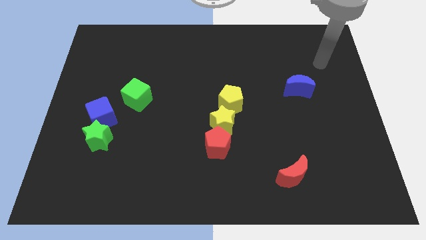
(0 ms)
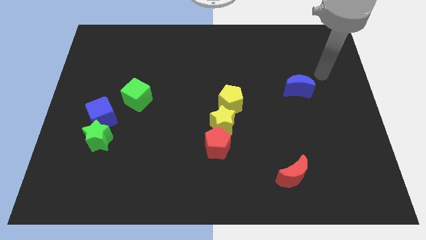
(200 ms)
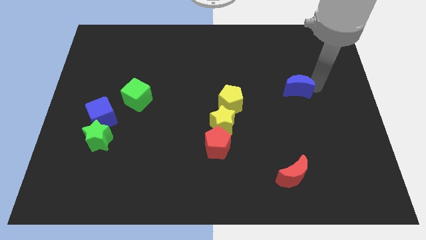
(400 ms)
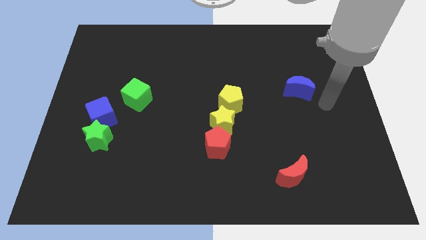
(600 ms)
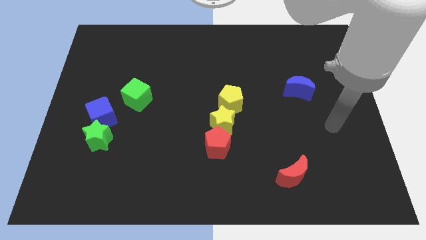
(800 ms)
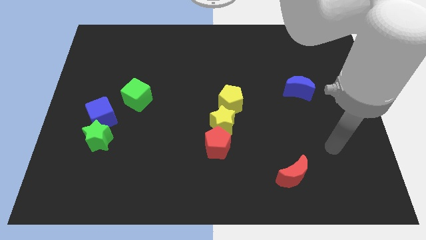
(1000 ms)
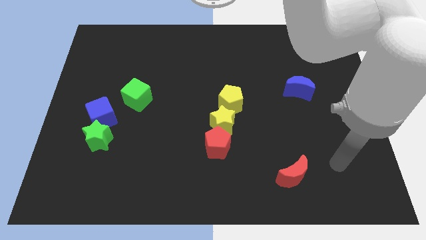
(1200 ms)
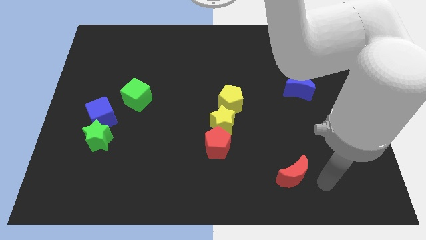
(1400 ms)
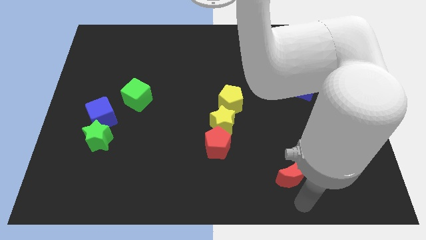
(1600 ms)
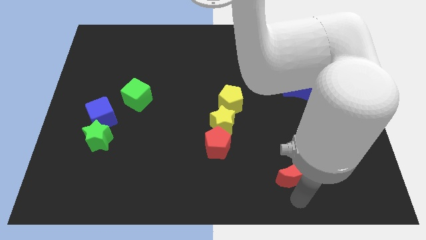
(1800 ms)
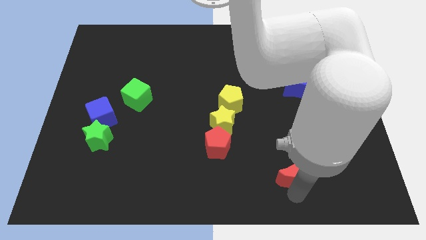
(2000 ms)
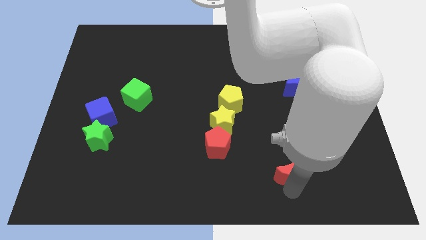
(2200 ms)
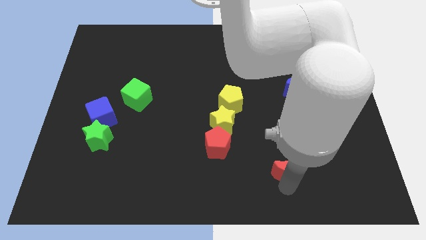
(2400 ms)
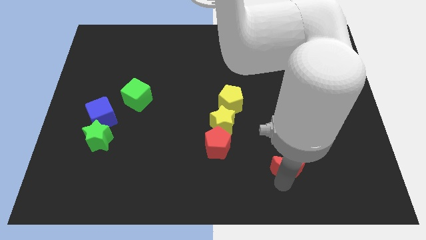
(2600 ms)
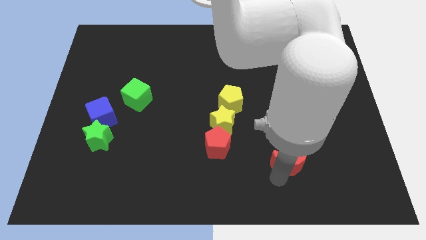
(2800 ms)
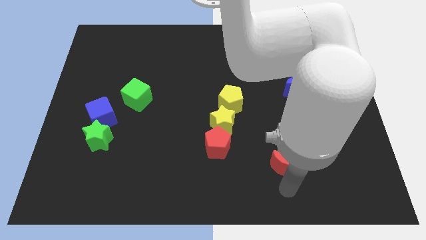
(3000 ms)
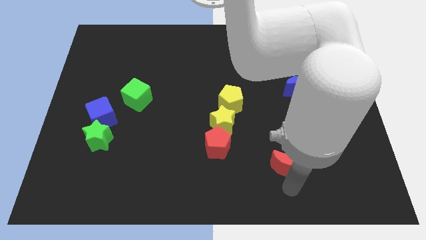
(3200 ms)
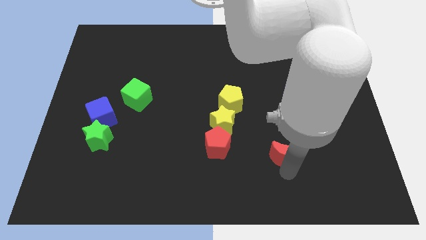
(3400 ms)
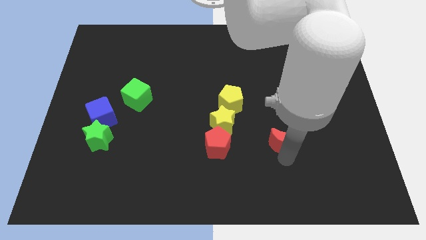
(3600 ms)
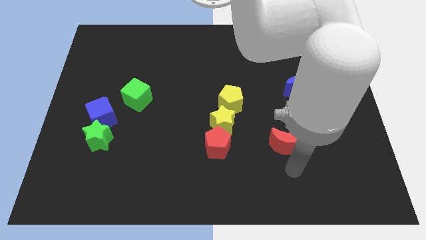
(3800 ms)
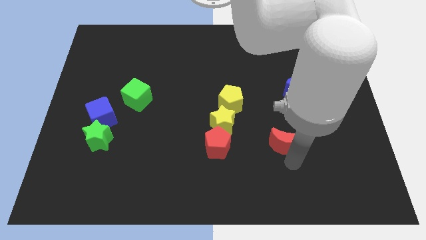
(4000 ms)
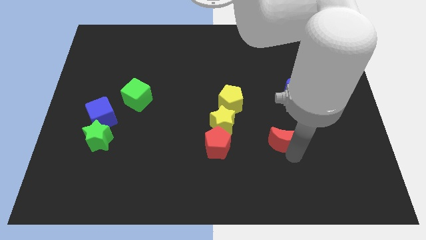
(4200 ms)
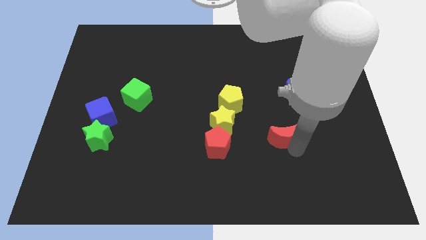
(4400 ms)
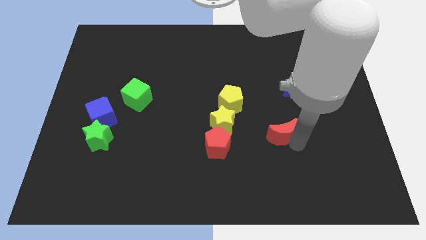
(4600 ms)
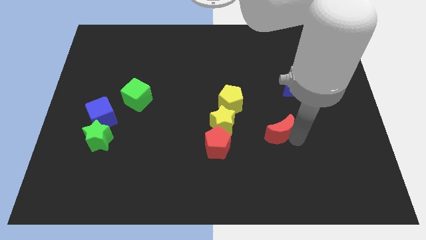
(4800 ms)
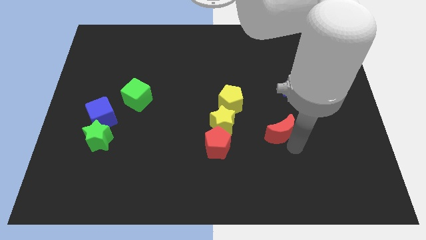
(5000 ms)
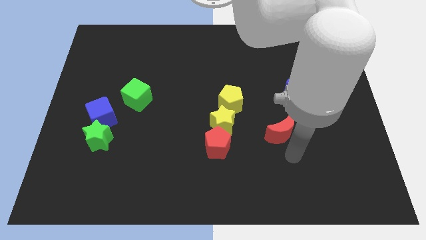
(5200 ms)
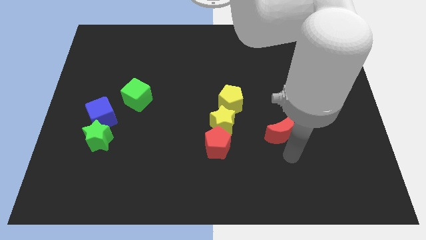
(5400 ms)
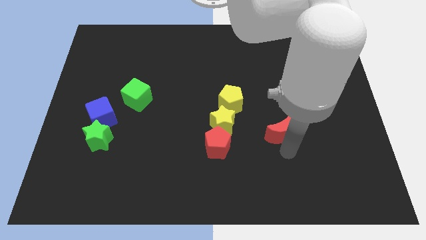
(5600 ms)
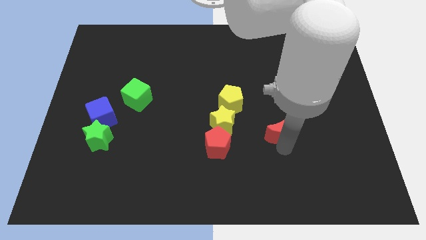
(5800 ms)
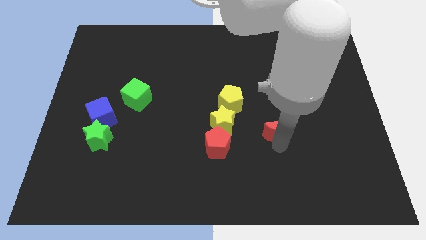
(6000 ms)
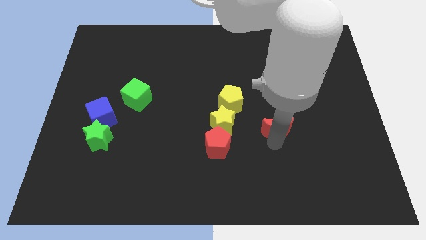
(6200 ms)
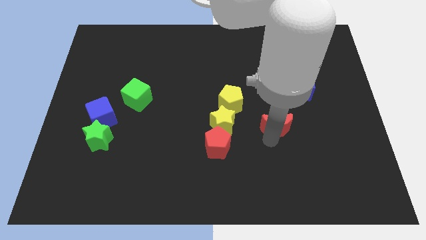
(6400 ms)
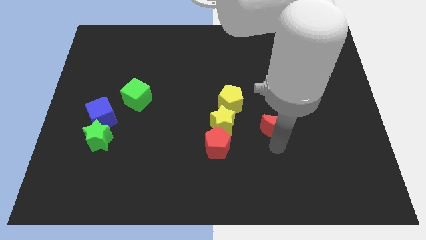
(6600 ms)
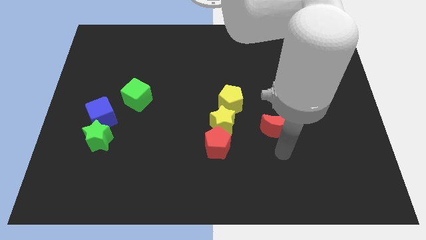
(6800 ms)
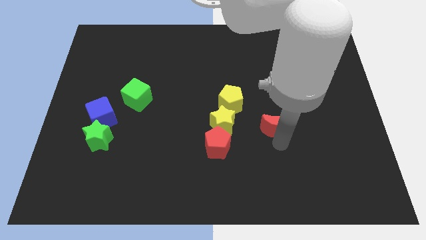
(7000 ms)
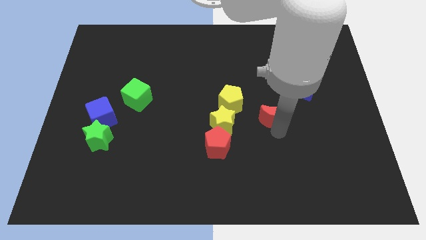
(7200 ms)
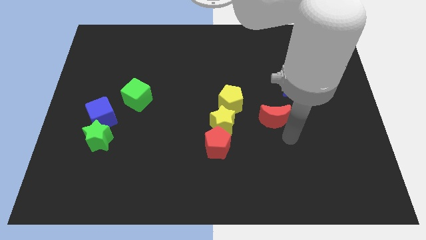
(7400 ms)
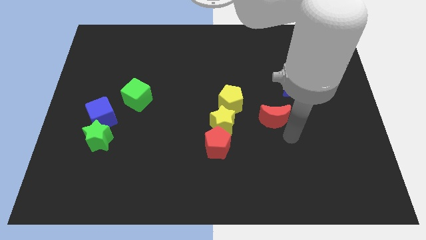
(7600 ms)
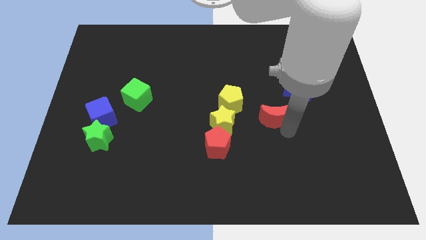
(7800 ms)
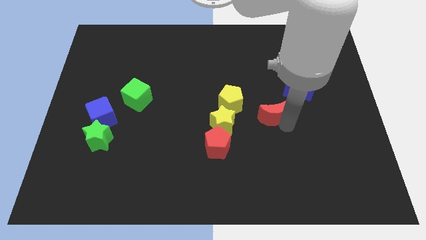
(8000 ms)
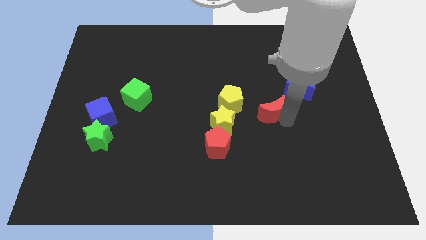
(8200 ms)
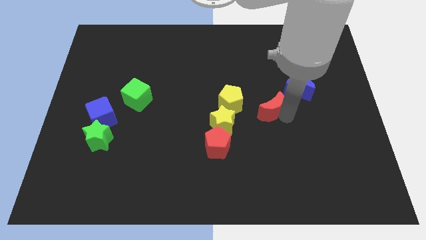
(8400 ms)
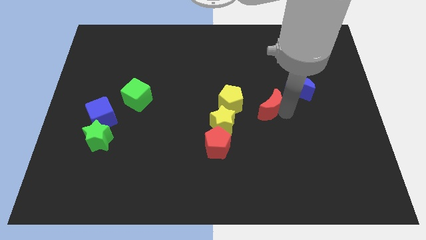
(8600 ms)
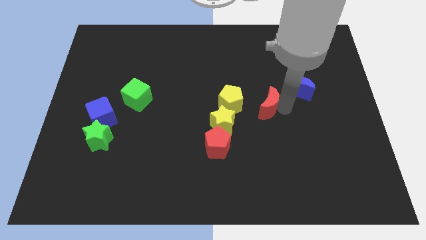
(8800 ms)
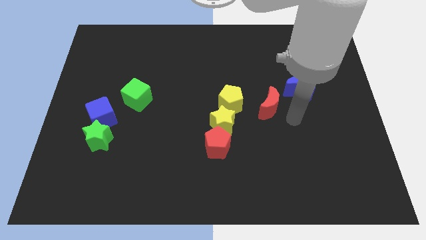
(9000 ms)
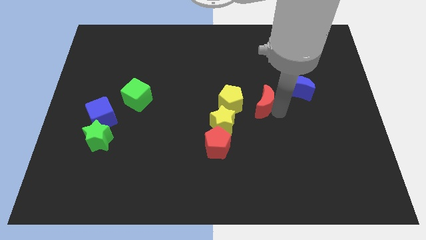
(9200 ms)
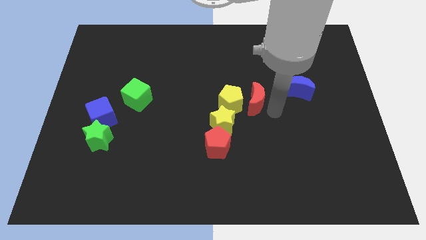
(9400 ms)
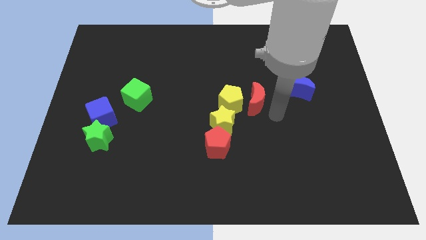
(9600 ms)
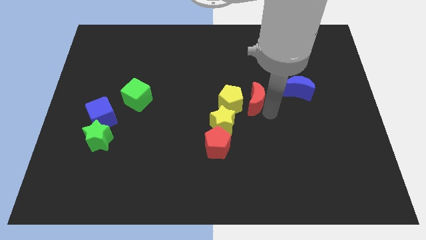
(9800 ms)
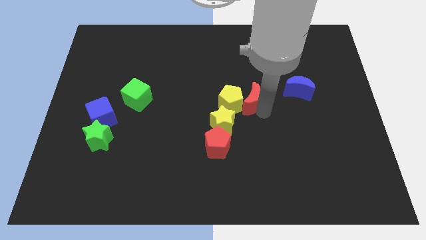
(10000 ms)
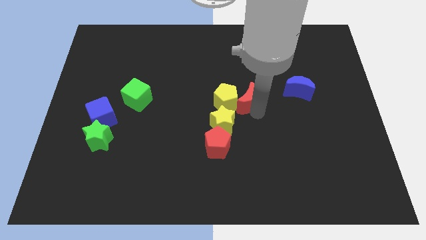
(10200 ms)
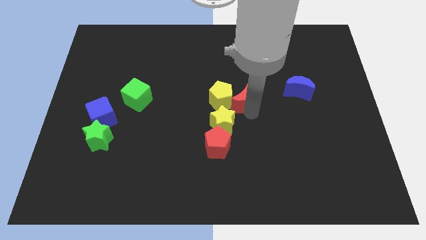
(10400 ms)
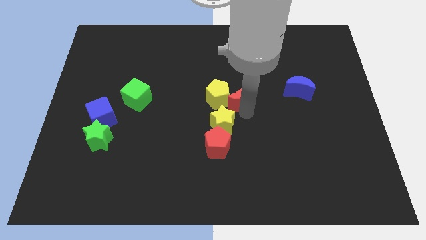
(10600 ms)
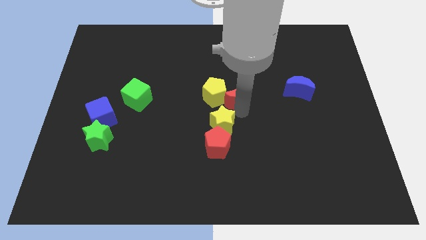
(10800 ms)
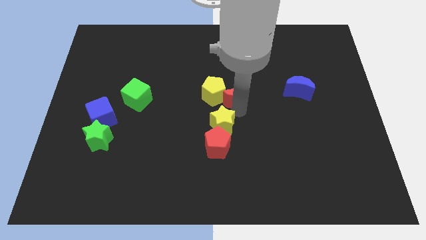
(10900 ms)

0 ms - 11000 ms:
slide the red moon upwards and then to the left

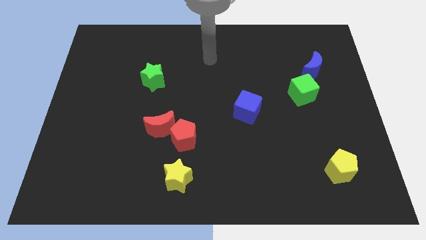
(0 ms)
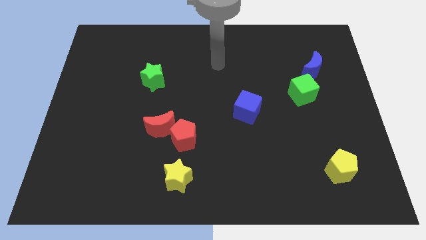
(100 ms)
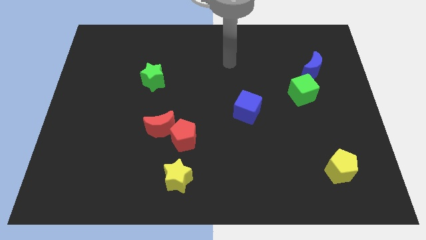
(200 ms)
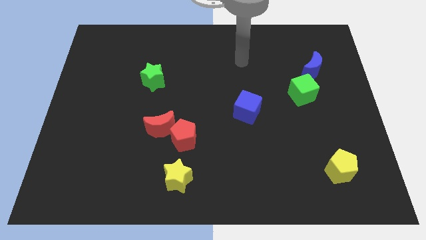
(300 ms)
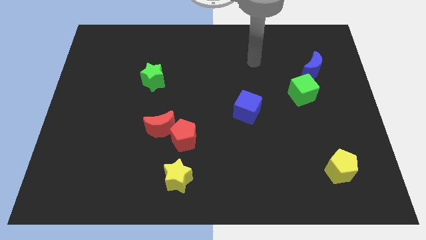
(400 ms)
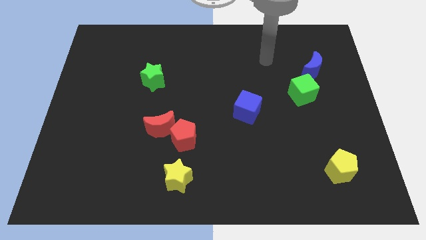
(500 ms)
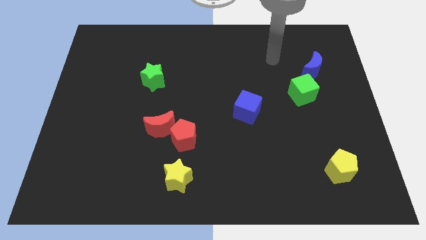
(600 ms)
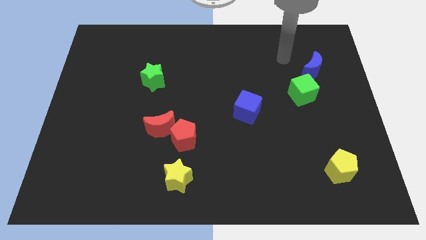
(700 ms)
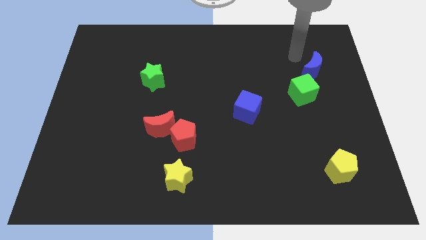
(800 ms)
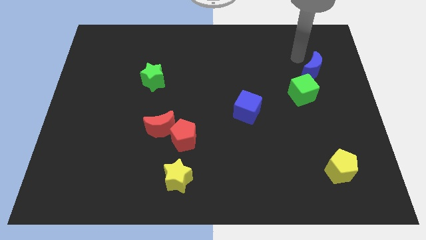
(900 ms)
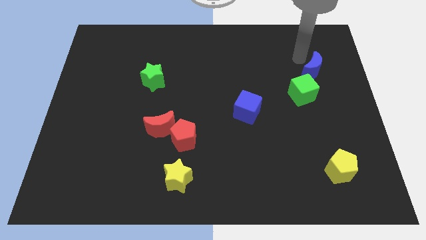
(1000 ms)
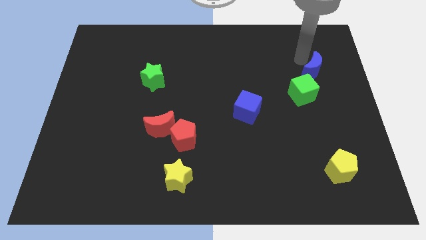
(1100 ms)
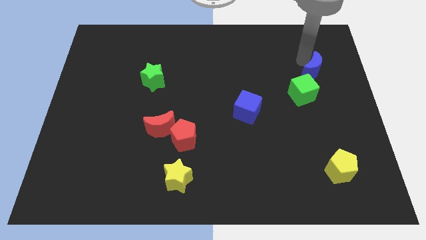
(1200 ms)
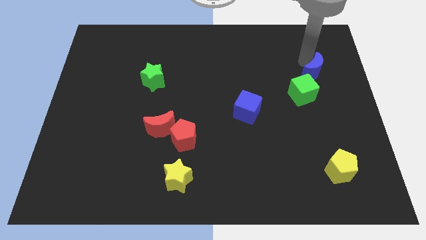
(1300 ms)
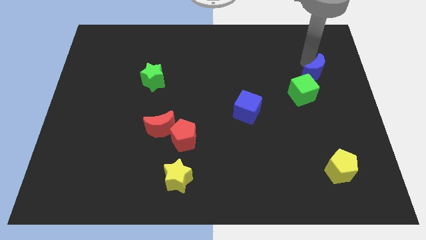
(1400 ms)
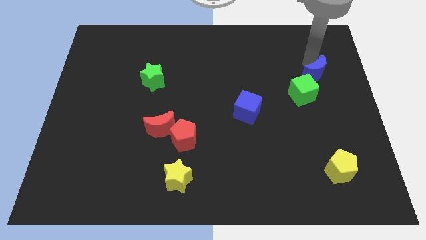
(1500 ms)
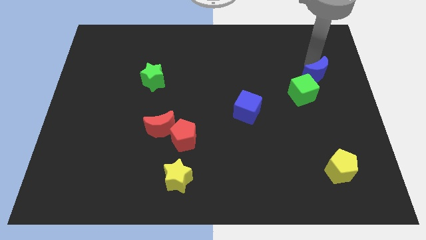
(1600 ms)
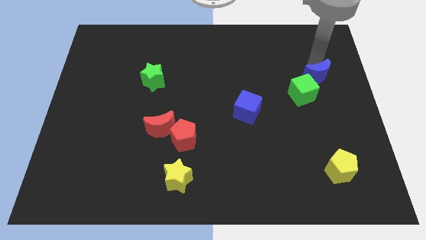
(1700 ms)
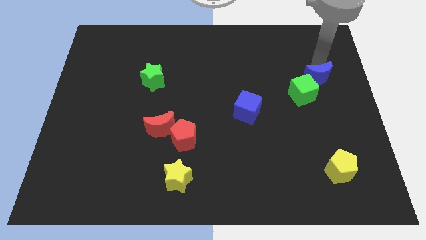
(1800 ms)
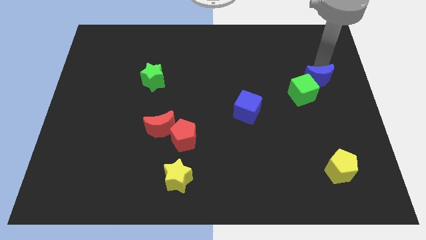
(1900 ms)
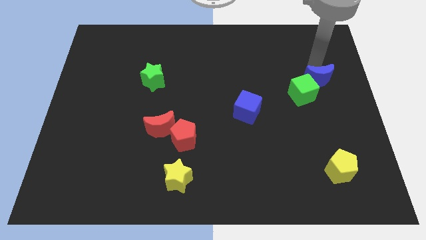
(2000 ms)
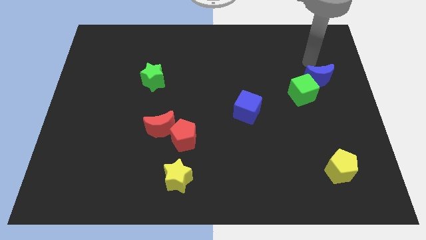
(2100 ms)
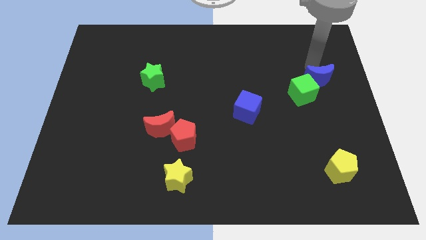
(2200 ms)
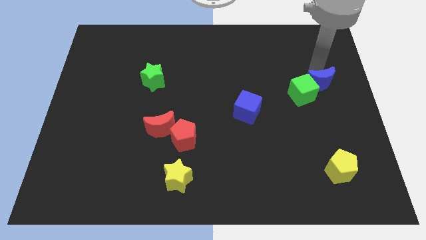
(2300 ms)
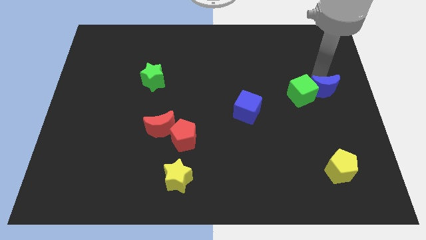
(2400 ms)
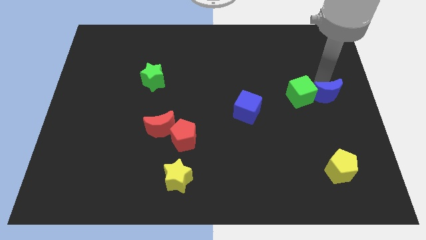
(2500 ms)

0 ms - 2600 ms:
slightly push the blue moon down
